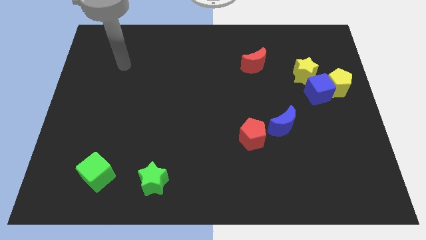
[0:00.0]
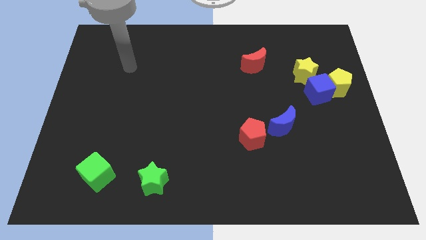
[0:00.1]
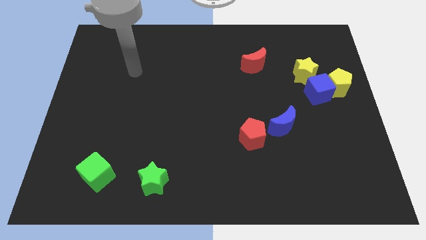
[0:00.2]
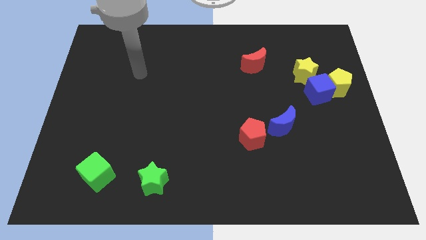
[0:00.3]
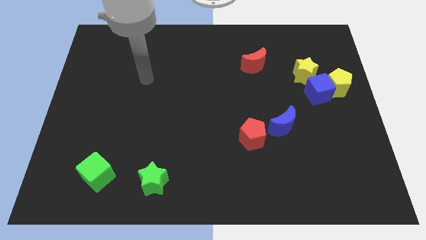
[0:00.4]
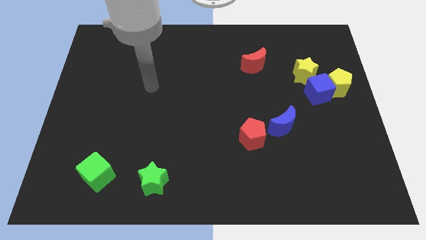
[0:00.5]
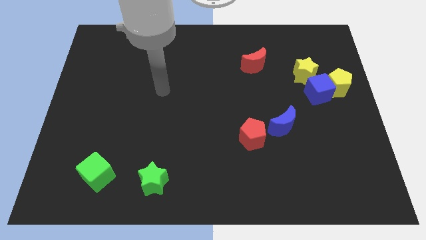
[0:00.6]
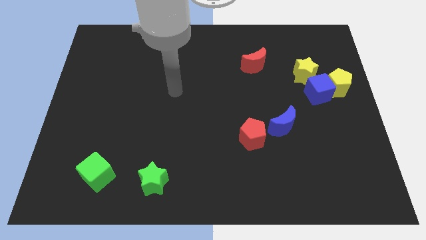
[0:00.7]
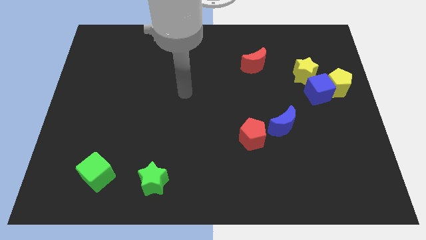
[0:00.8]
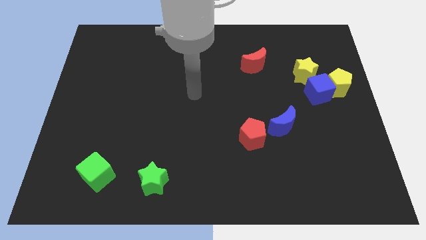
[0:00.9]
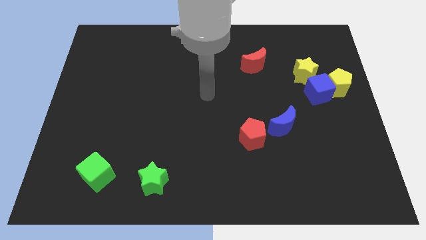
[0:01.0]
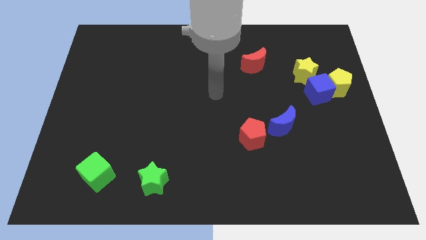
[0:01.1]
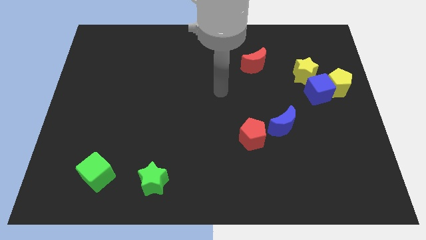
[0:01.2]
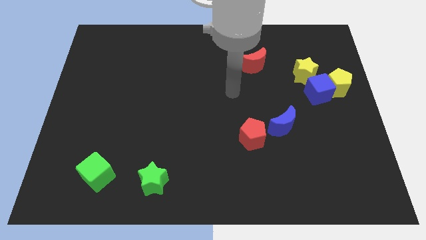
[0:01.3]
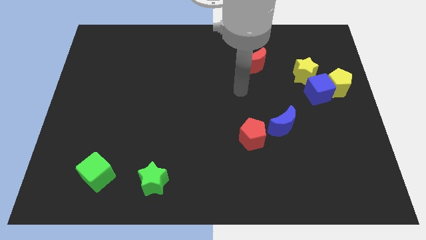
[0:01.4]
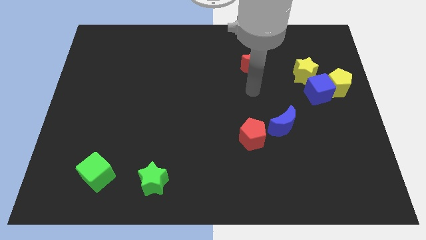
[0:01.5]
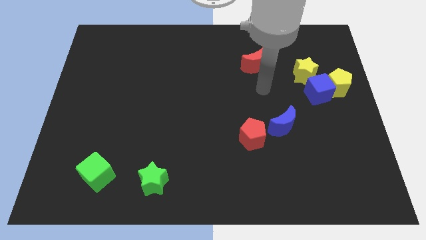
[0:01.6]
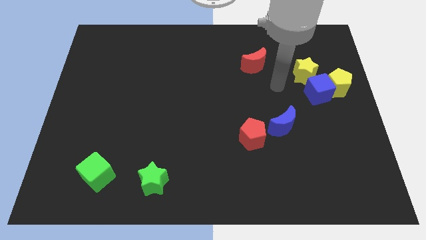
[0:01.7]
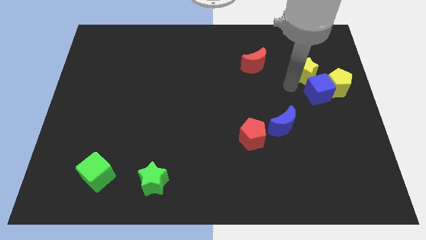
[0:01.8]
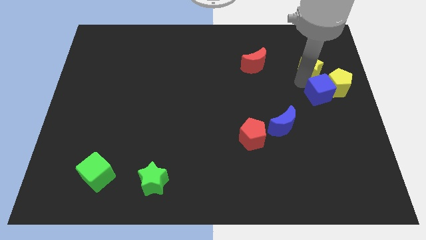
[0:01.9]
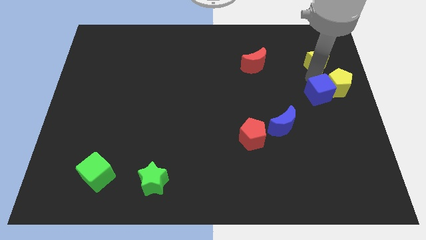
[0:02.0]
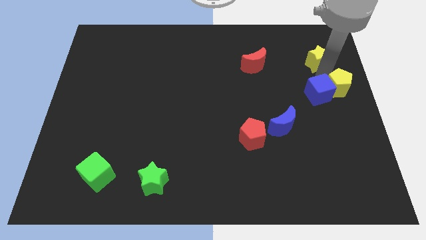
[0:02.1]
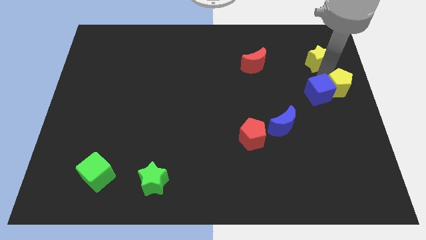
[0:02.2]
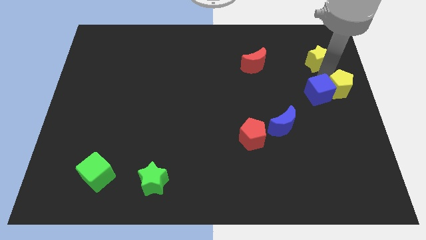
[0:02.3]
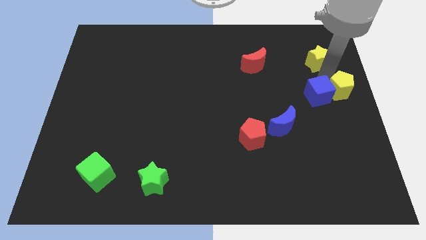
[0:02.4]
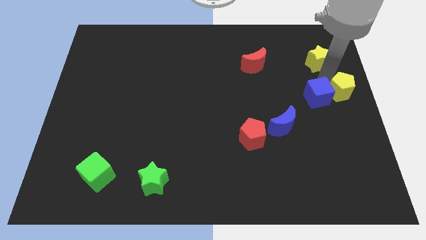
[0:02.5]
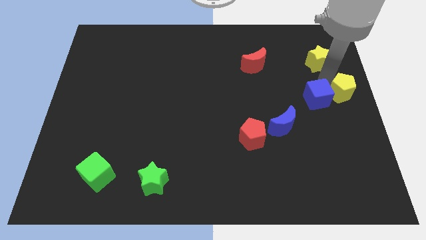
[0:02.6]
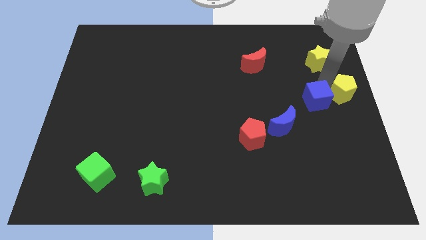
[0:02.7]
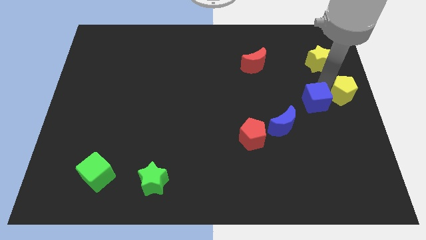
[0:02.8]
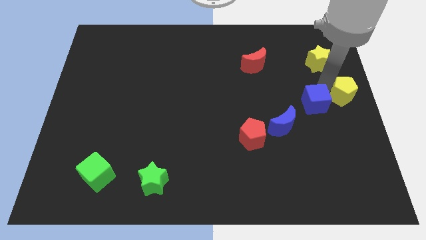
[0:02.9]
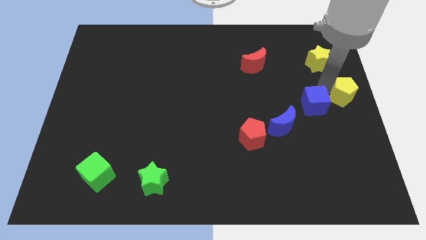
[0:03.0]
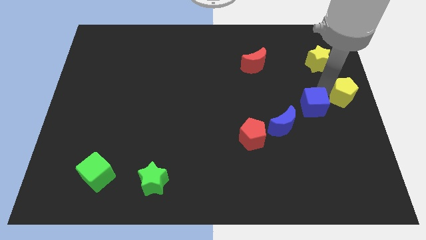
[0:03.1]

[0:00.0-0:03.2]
separate the blue cube from the yellow pentagon and yellow star

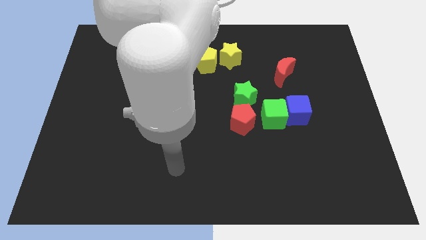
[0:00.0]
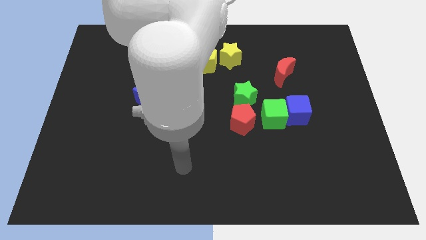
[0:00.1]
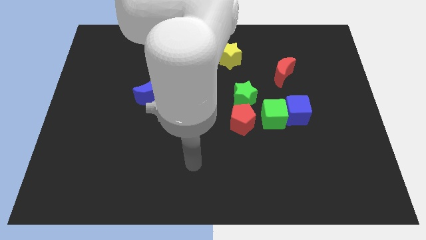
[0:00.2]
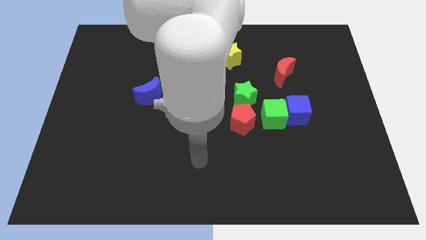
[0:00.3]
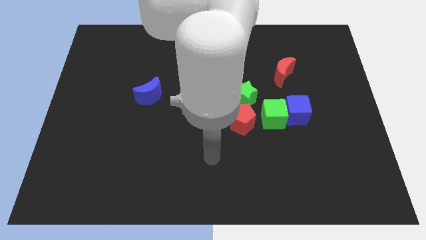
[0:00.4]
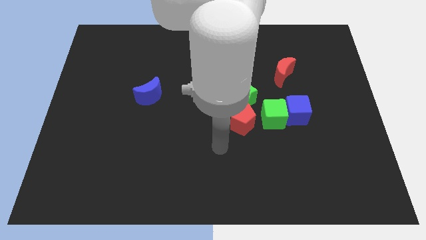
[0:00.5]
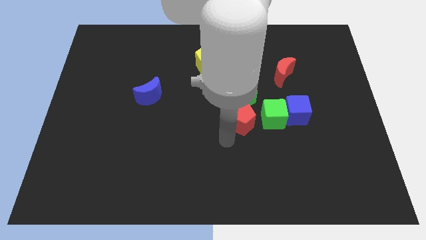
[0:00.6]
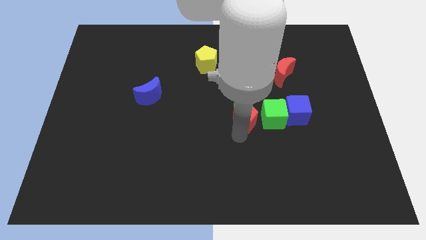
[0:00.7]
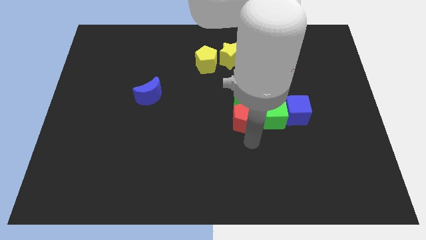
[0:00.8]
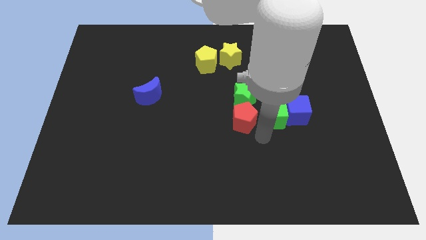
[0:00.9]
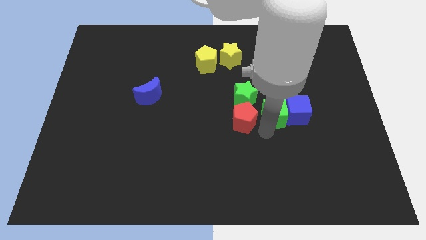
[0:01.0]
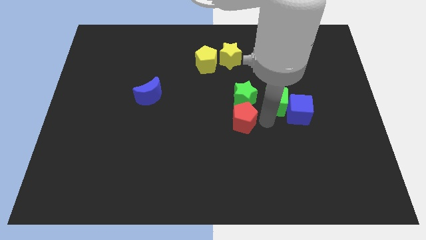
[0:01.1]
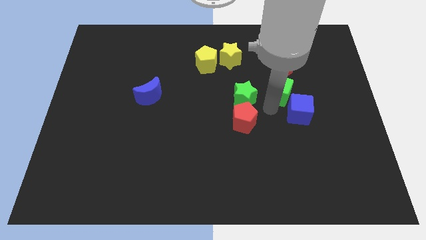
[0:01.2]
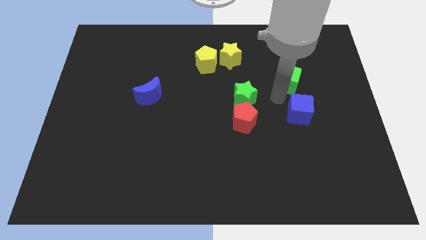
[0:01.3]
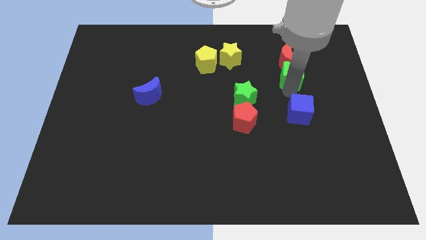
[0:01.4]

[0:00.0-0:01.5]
separate the blue cube from the green cube

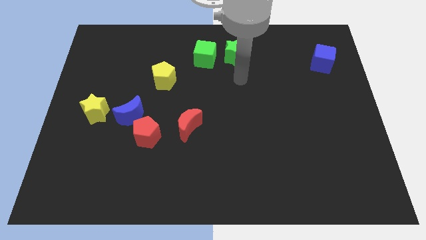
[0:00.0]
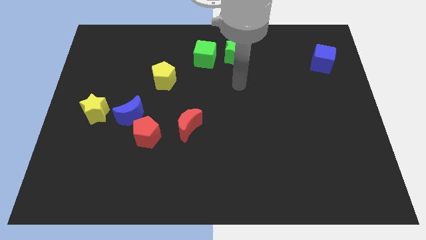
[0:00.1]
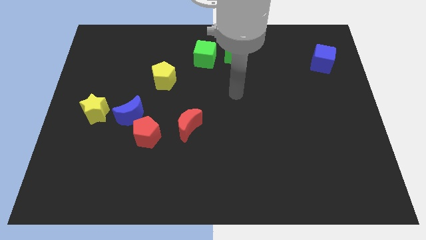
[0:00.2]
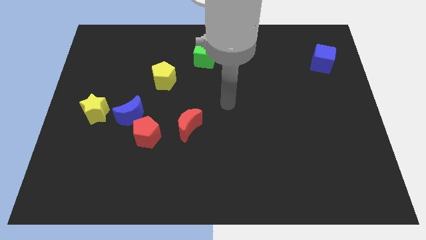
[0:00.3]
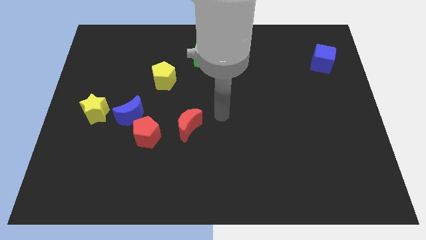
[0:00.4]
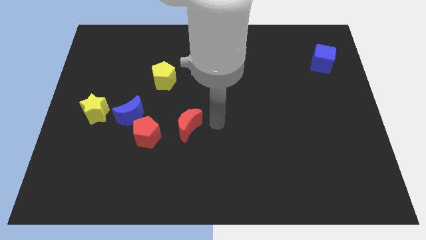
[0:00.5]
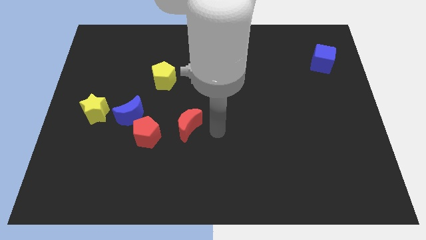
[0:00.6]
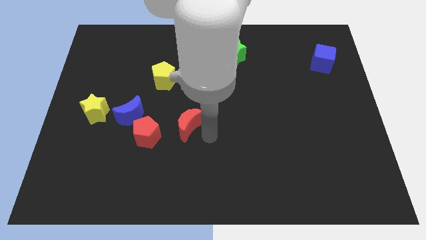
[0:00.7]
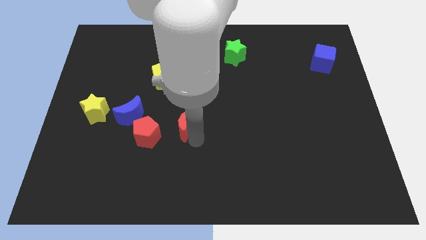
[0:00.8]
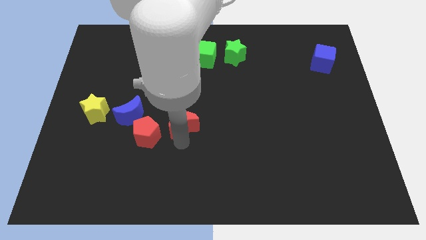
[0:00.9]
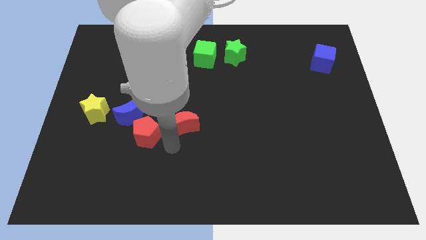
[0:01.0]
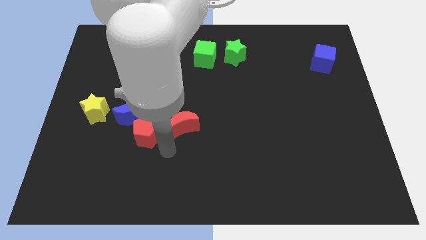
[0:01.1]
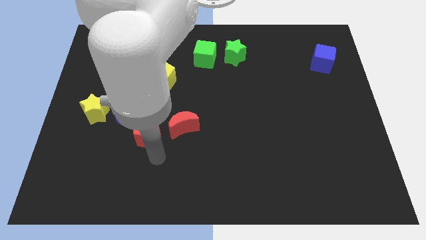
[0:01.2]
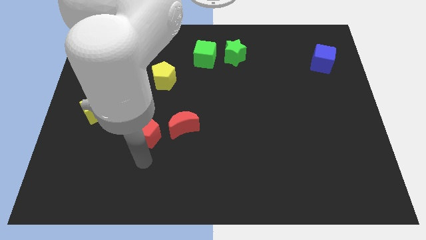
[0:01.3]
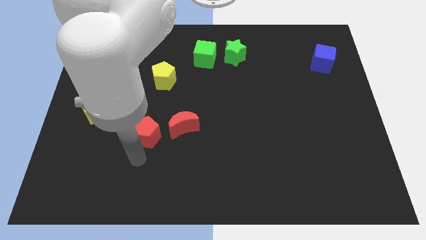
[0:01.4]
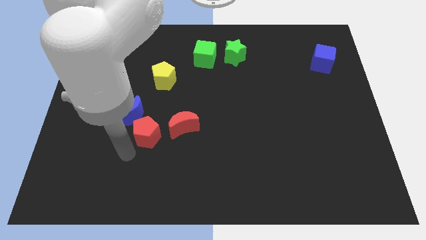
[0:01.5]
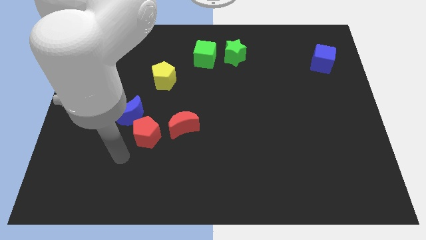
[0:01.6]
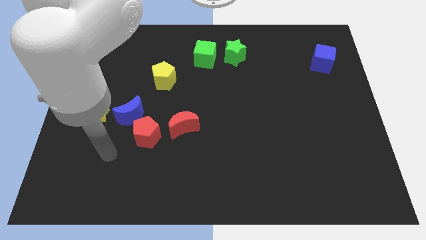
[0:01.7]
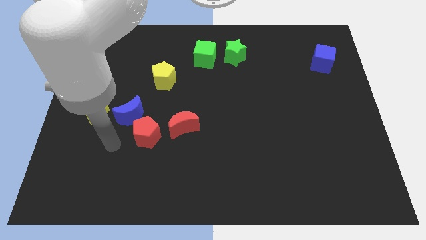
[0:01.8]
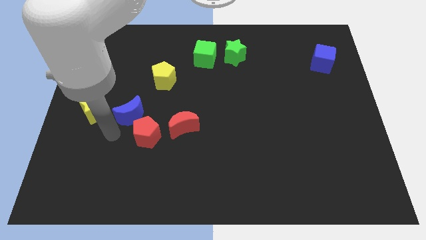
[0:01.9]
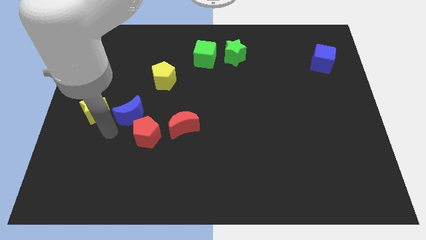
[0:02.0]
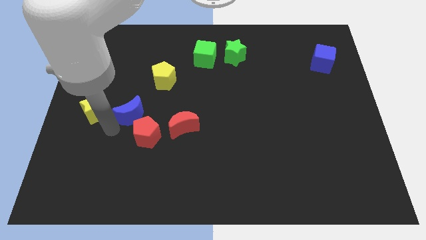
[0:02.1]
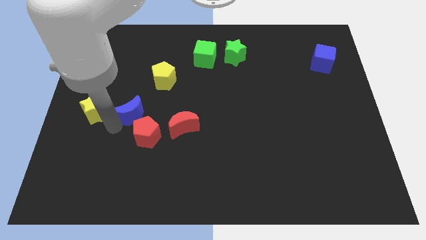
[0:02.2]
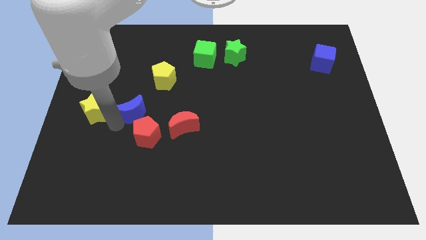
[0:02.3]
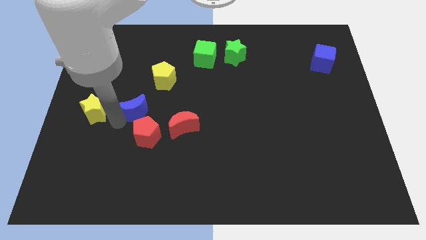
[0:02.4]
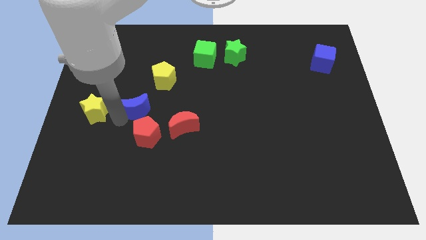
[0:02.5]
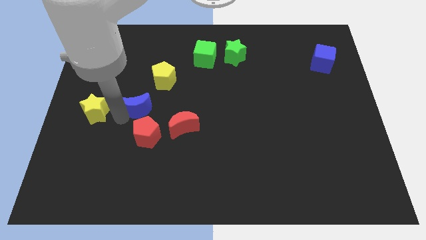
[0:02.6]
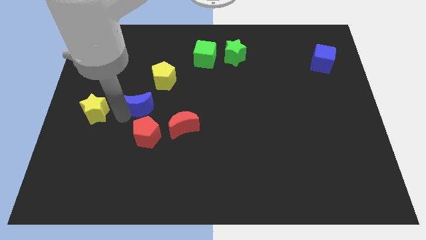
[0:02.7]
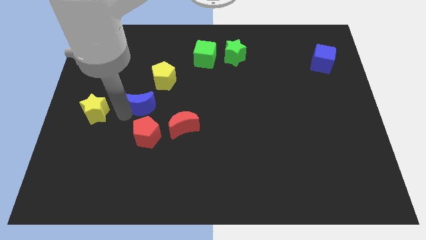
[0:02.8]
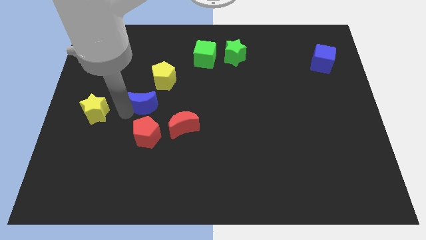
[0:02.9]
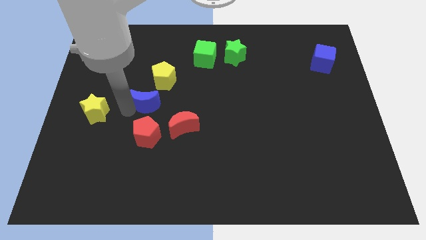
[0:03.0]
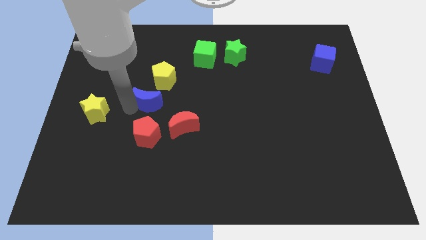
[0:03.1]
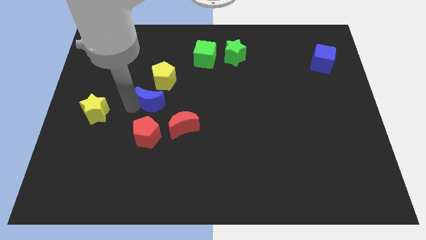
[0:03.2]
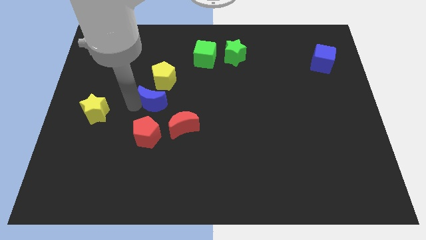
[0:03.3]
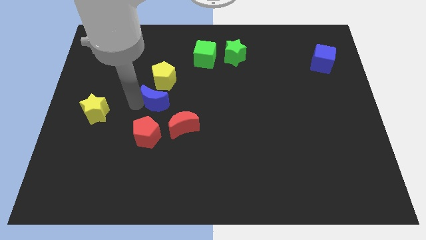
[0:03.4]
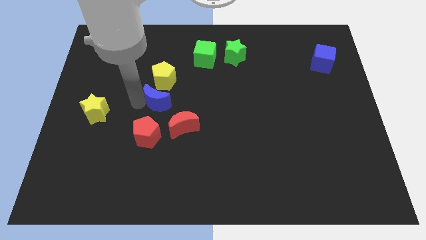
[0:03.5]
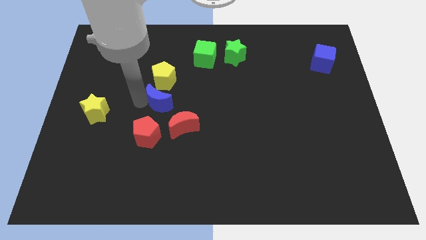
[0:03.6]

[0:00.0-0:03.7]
move the blue moon away from the red pentagon and yellow star

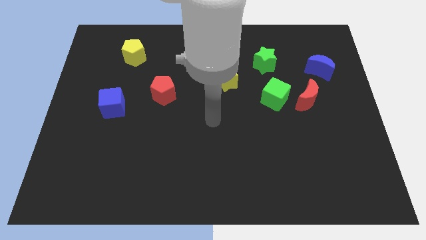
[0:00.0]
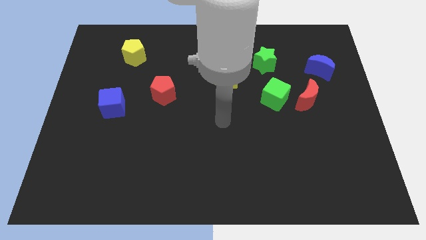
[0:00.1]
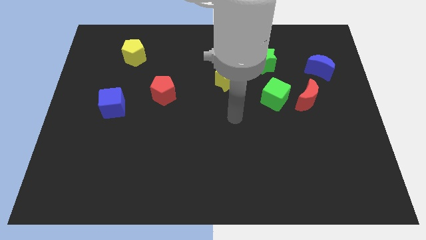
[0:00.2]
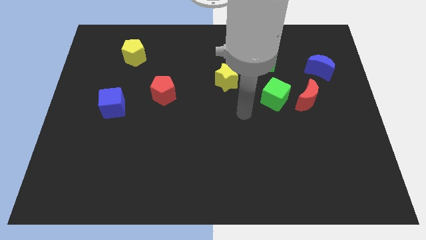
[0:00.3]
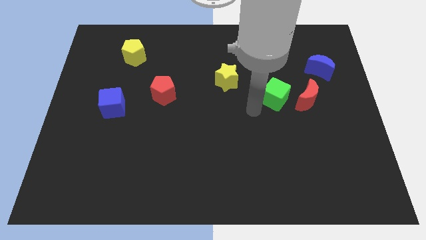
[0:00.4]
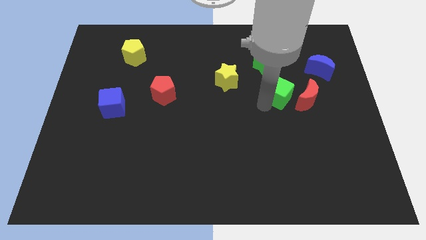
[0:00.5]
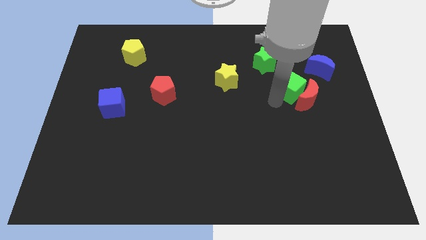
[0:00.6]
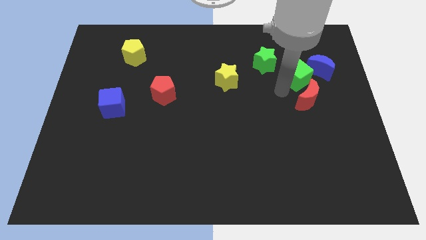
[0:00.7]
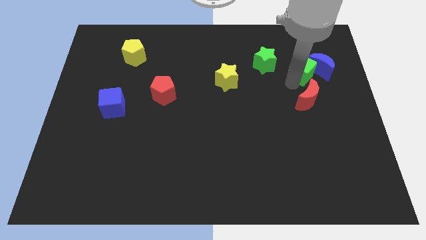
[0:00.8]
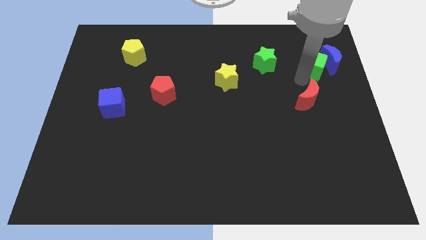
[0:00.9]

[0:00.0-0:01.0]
pull the red moon apart from the green cube
